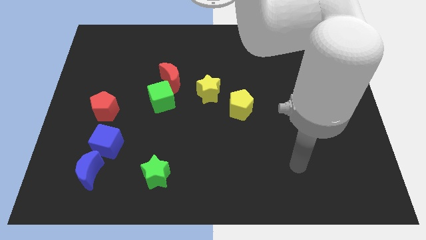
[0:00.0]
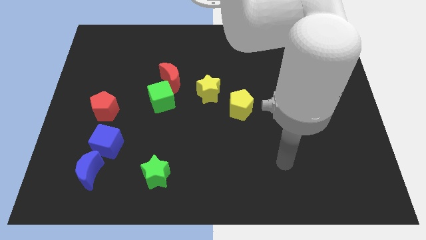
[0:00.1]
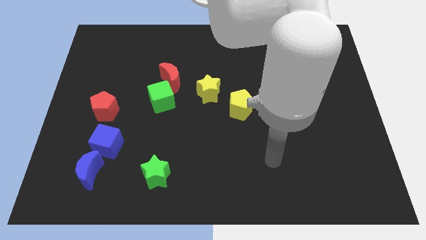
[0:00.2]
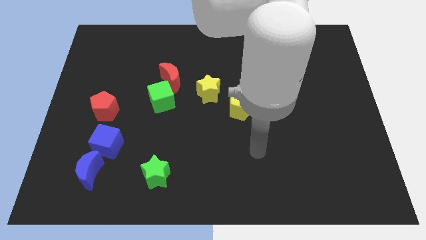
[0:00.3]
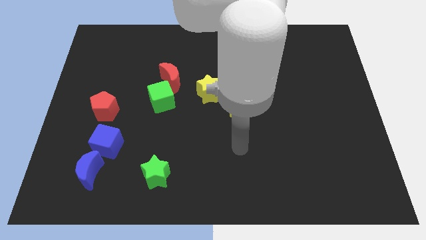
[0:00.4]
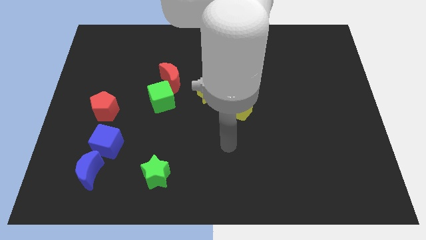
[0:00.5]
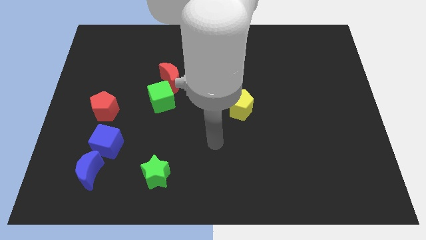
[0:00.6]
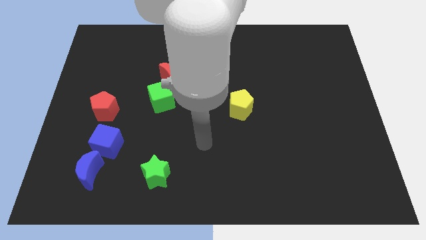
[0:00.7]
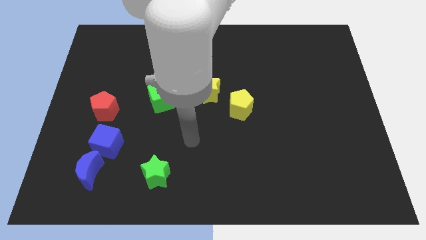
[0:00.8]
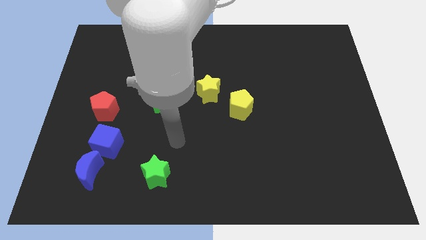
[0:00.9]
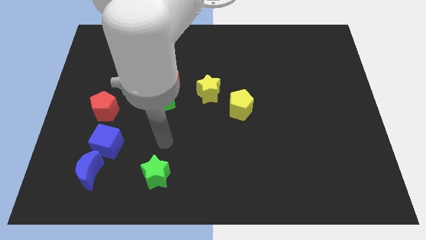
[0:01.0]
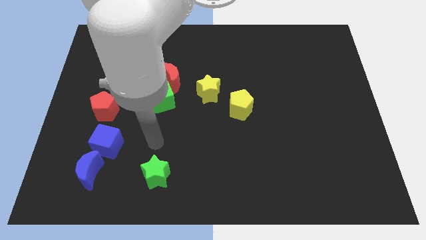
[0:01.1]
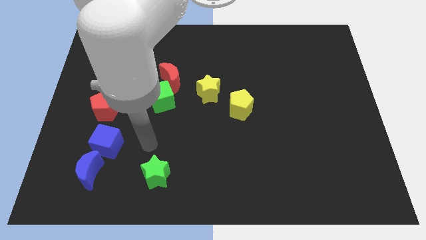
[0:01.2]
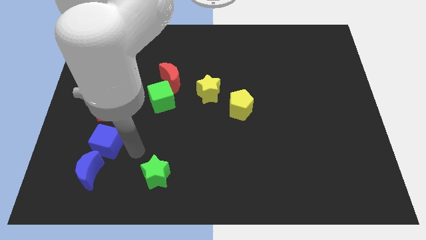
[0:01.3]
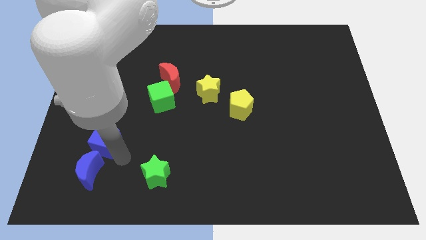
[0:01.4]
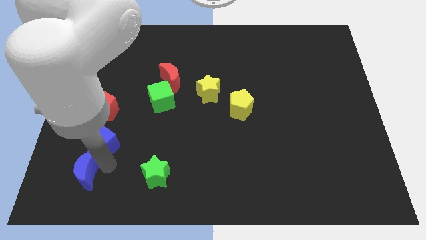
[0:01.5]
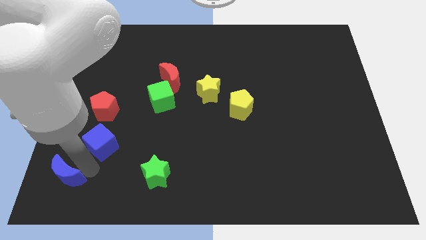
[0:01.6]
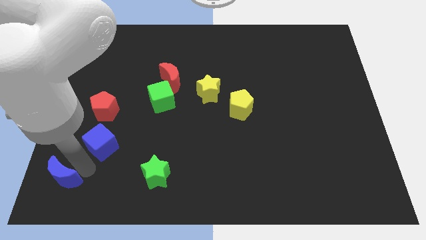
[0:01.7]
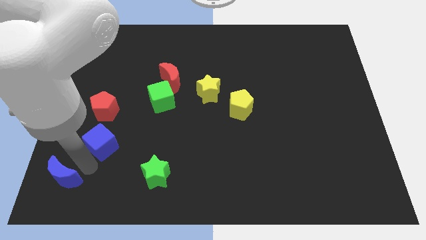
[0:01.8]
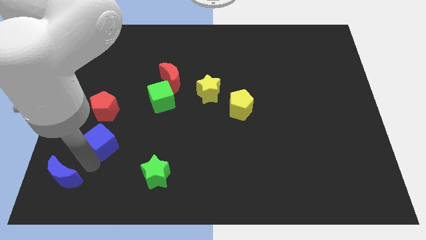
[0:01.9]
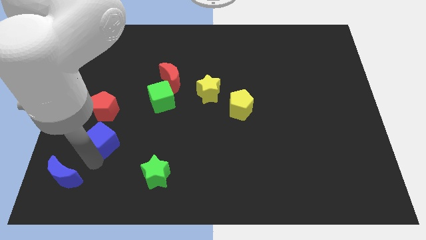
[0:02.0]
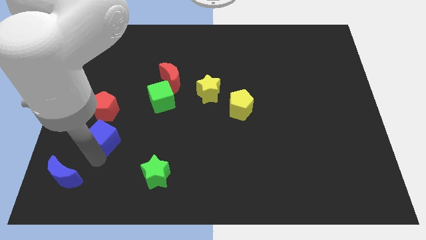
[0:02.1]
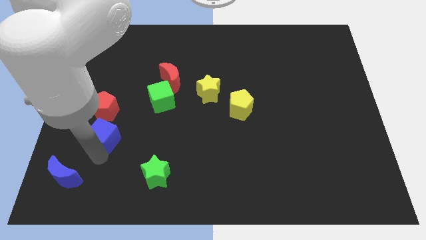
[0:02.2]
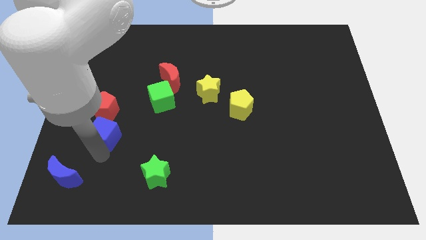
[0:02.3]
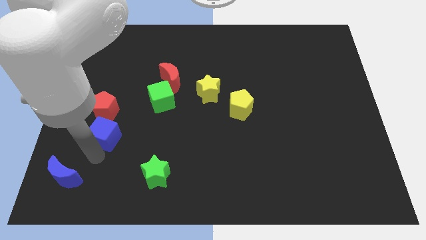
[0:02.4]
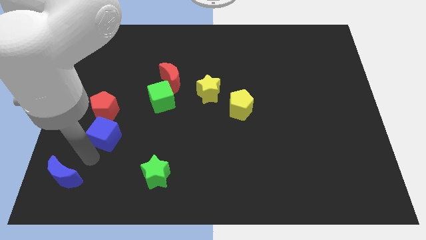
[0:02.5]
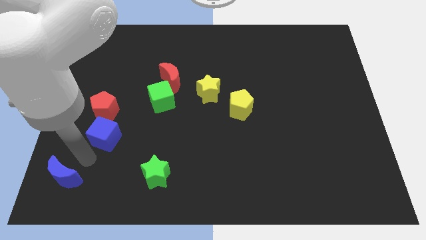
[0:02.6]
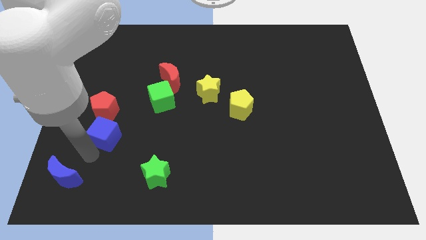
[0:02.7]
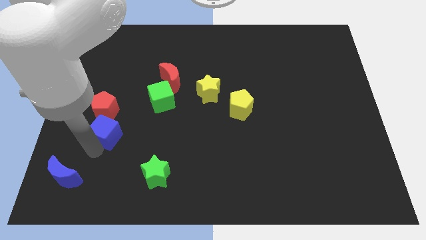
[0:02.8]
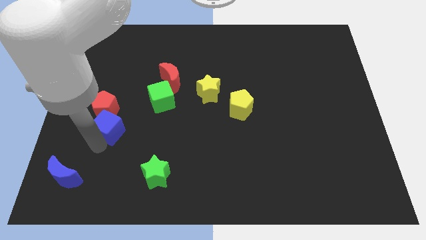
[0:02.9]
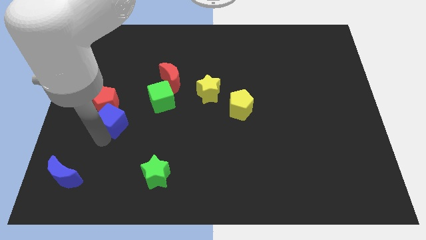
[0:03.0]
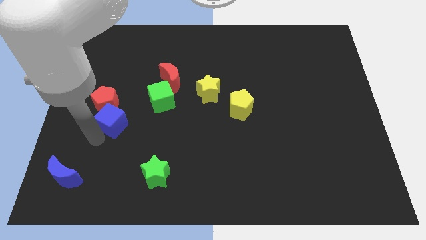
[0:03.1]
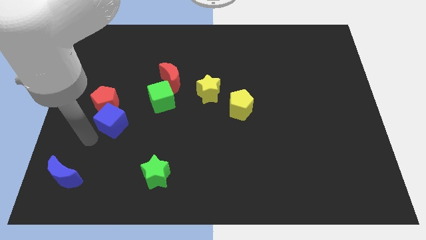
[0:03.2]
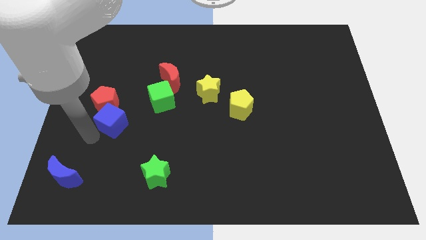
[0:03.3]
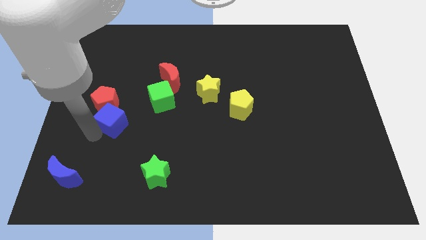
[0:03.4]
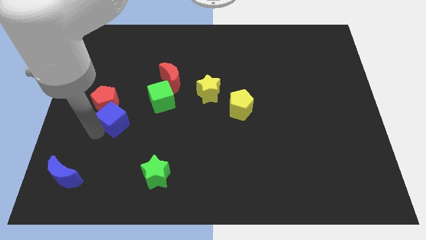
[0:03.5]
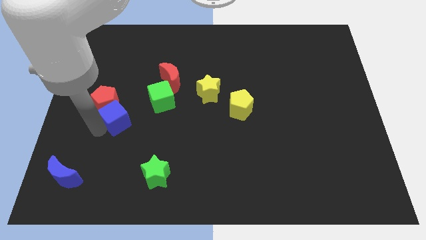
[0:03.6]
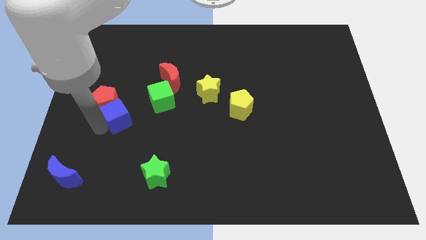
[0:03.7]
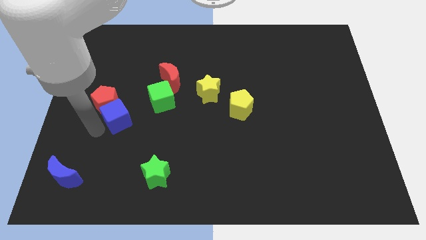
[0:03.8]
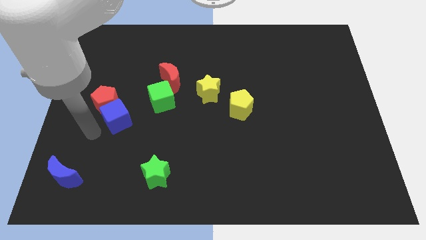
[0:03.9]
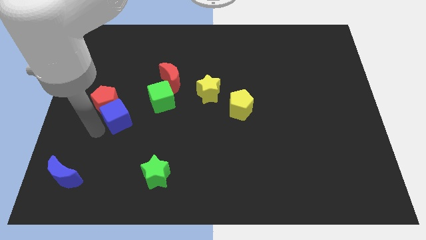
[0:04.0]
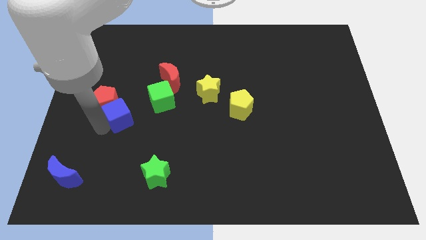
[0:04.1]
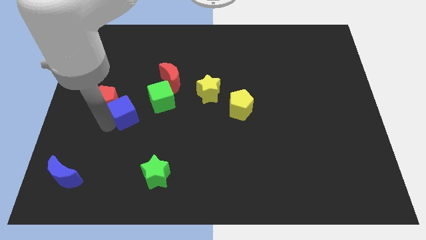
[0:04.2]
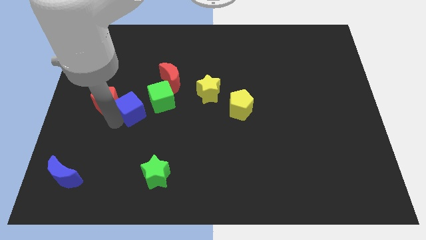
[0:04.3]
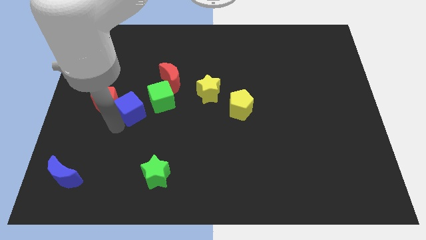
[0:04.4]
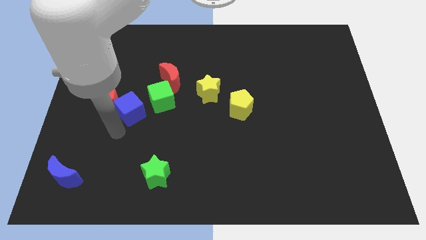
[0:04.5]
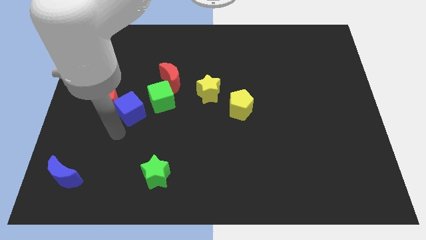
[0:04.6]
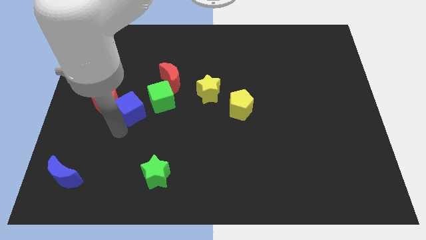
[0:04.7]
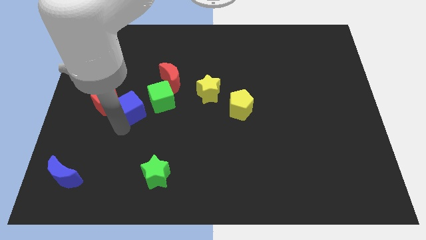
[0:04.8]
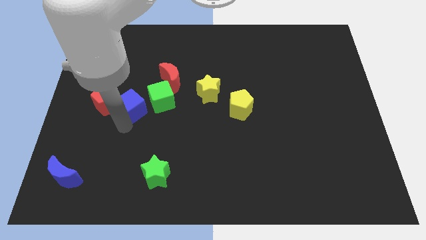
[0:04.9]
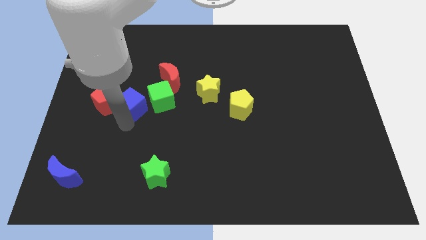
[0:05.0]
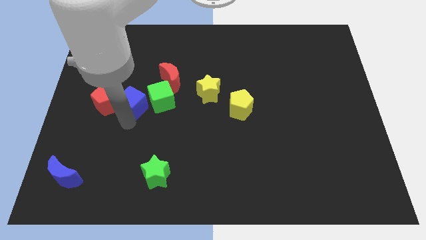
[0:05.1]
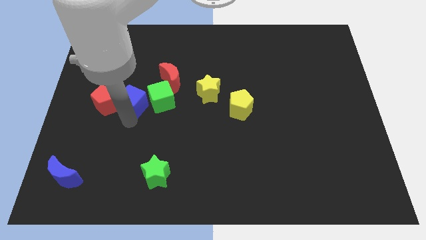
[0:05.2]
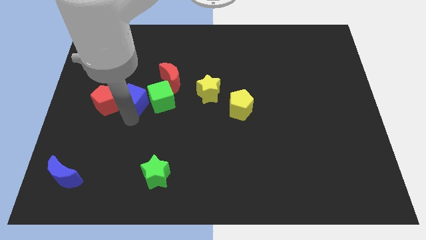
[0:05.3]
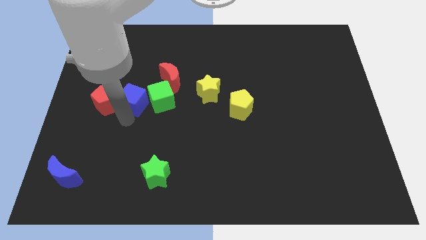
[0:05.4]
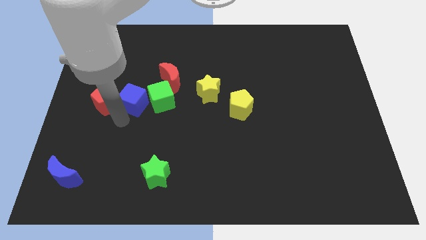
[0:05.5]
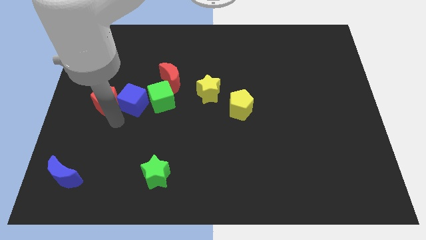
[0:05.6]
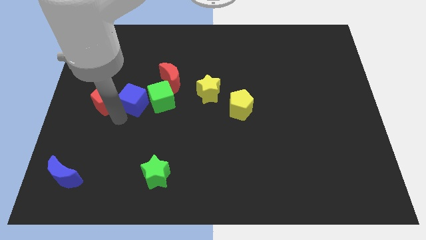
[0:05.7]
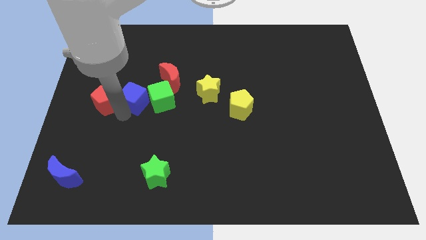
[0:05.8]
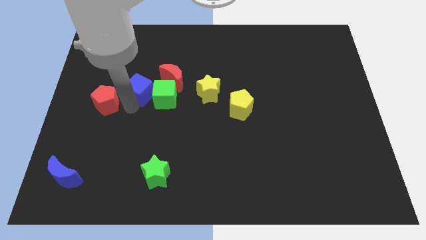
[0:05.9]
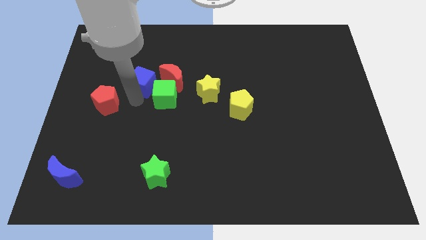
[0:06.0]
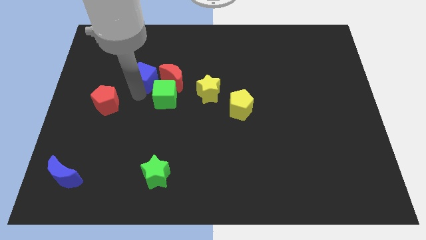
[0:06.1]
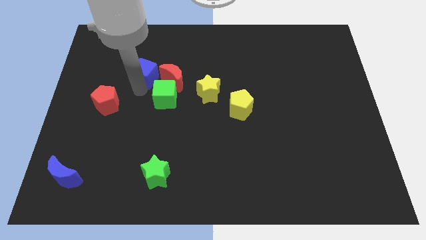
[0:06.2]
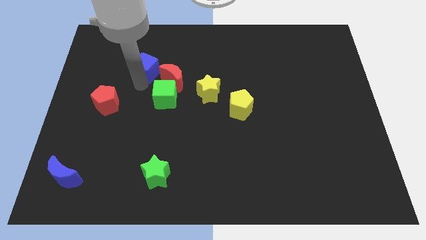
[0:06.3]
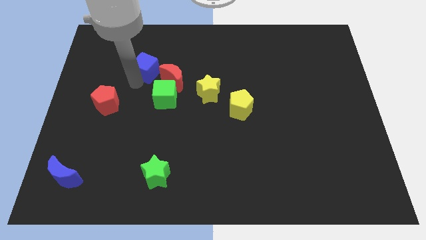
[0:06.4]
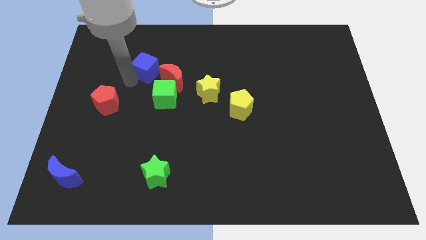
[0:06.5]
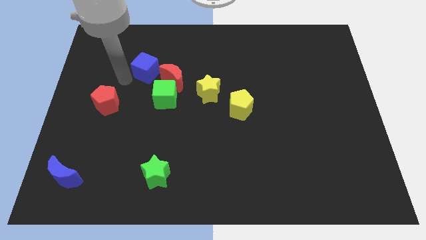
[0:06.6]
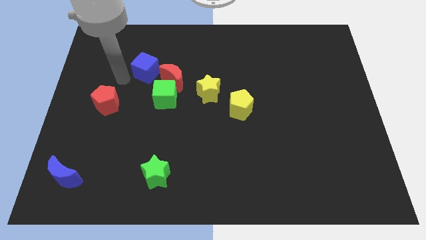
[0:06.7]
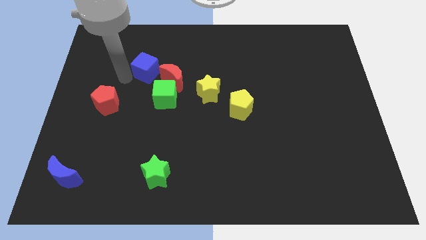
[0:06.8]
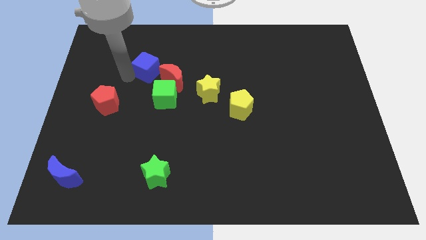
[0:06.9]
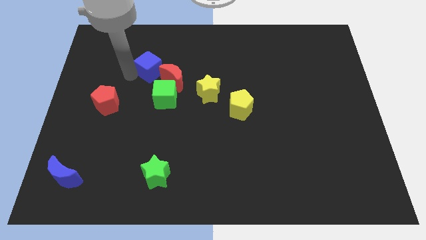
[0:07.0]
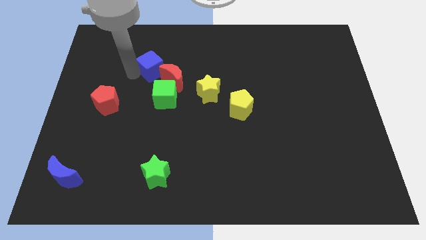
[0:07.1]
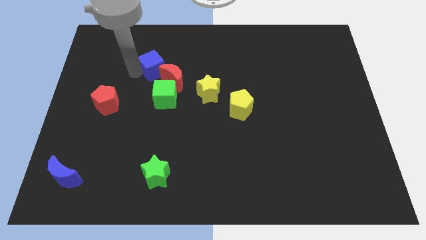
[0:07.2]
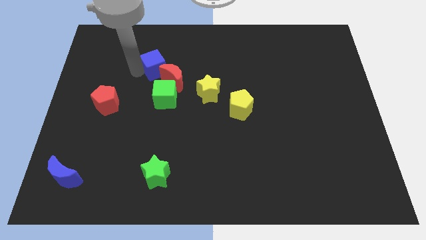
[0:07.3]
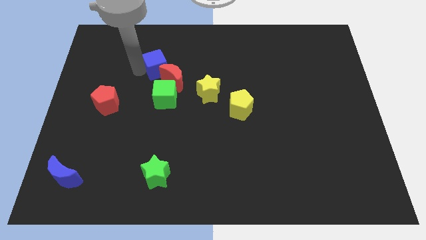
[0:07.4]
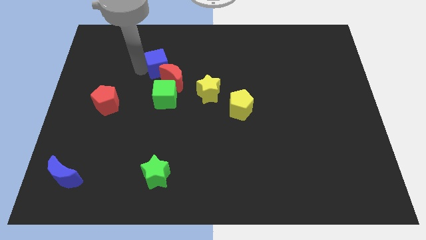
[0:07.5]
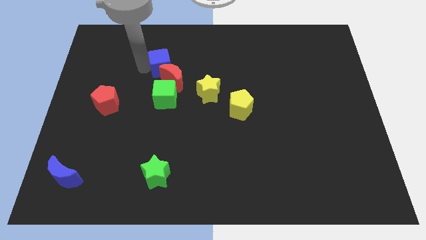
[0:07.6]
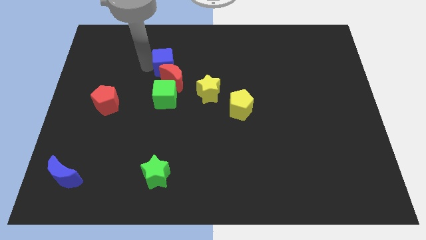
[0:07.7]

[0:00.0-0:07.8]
push the blue cube diagonally up and right

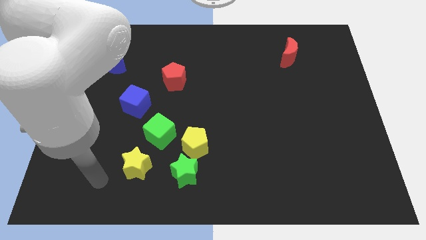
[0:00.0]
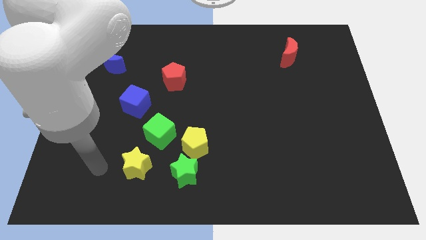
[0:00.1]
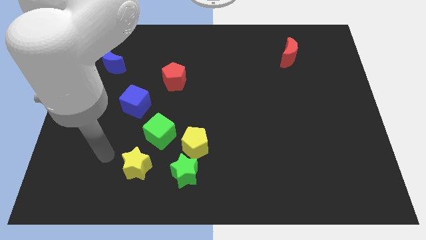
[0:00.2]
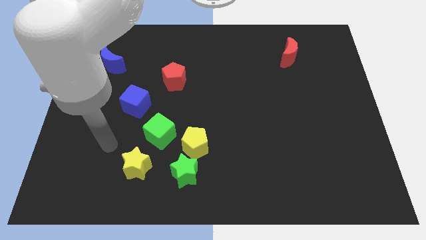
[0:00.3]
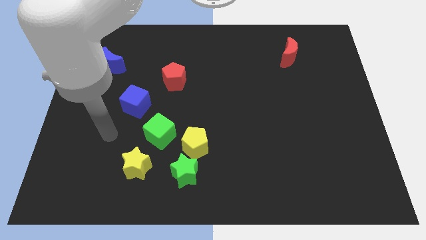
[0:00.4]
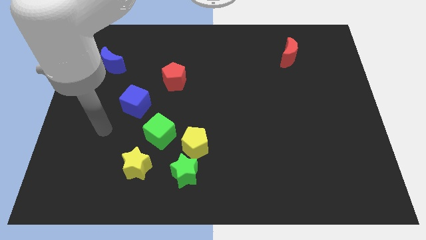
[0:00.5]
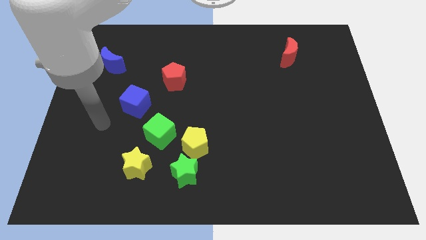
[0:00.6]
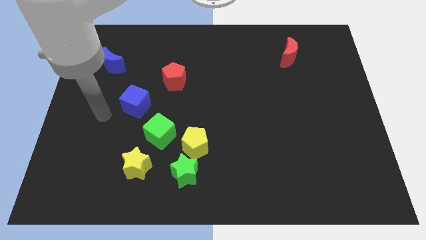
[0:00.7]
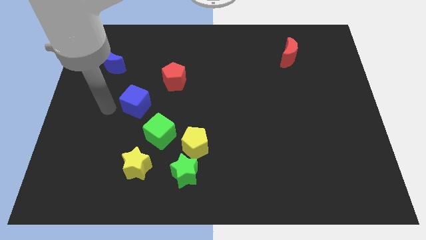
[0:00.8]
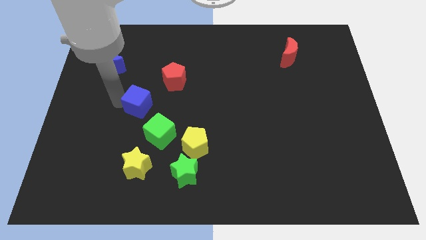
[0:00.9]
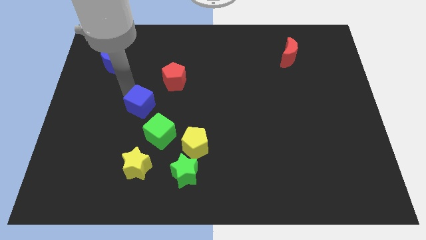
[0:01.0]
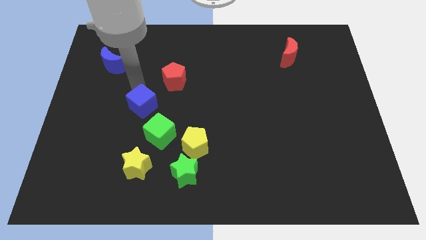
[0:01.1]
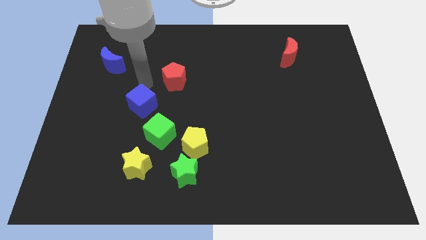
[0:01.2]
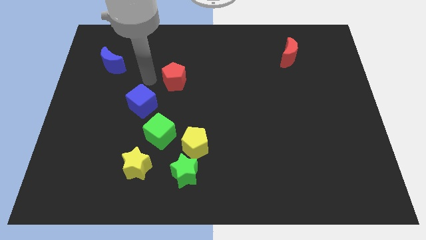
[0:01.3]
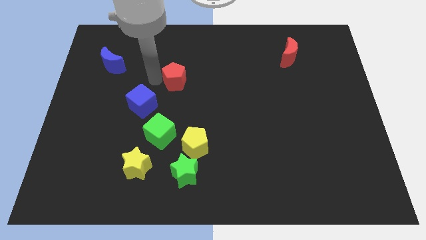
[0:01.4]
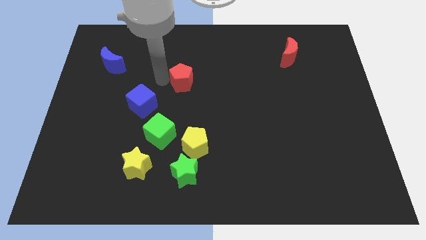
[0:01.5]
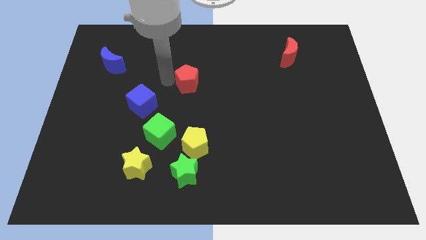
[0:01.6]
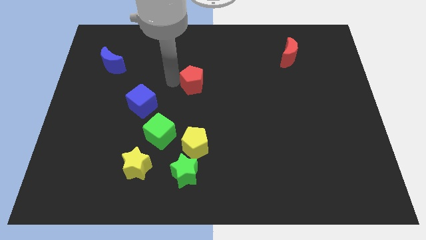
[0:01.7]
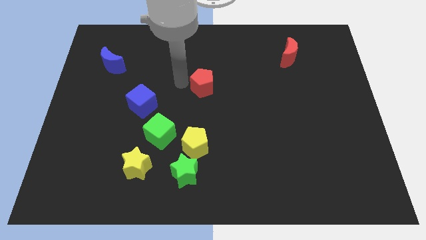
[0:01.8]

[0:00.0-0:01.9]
slightly slide the red pentagon to the right
